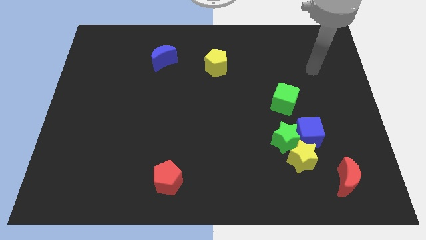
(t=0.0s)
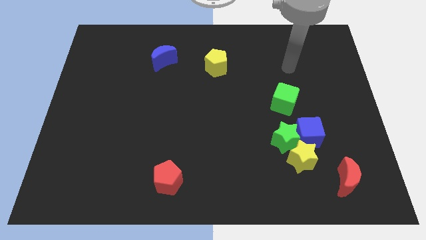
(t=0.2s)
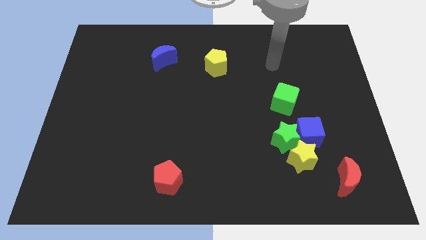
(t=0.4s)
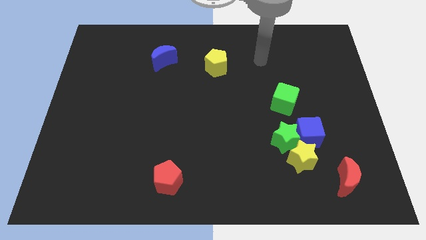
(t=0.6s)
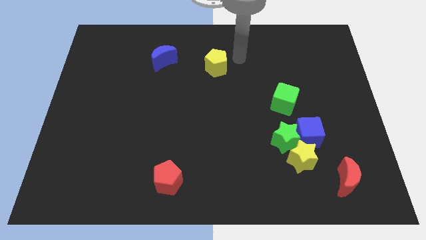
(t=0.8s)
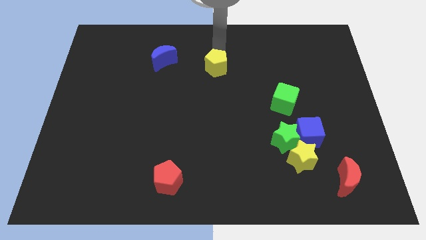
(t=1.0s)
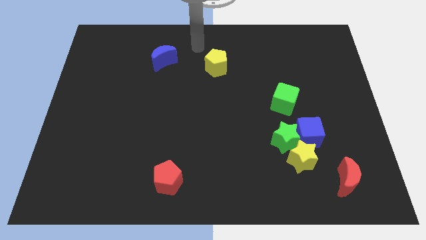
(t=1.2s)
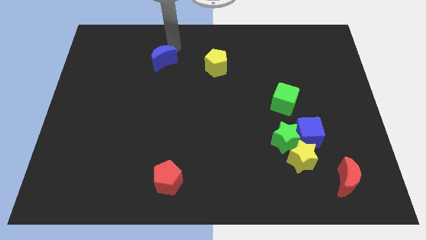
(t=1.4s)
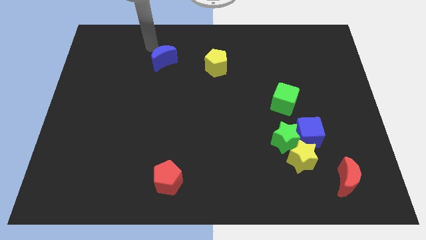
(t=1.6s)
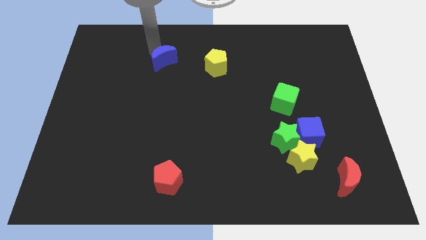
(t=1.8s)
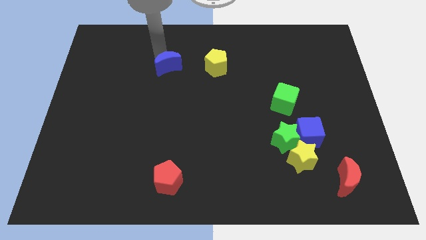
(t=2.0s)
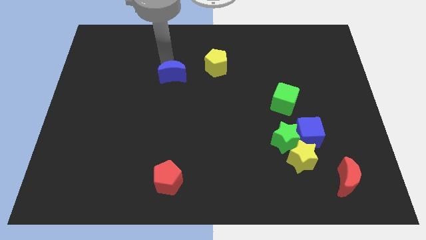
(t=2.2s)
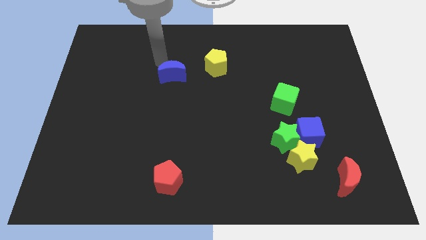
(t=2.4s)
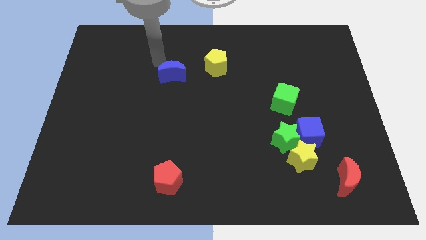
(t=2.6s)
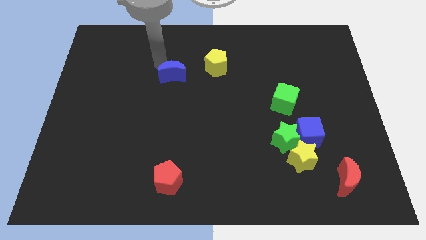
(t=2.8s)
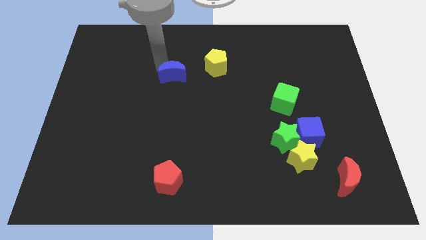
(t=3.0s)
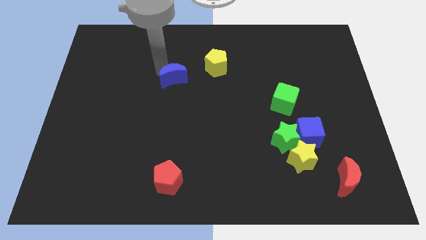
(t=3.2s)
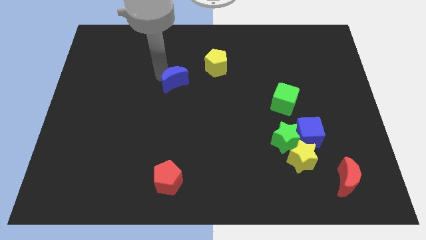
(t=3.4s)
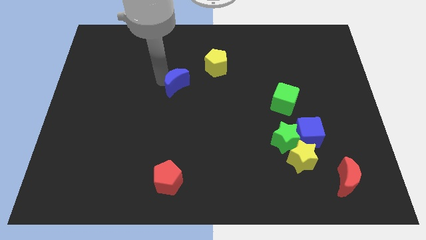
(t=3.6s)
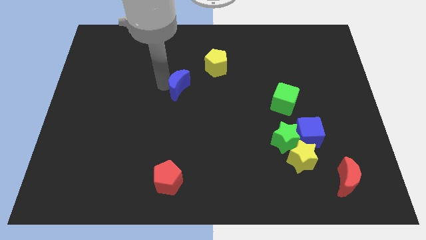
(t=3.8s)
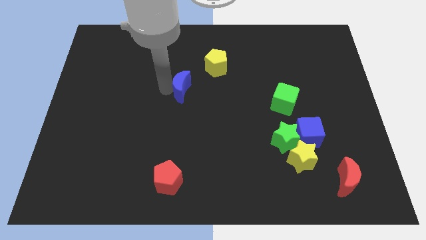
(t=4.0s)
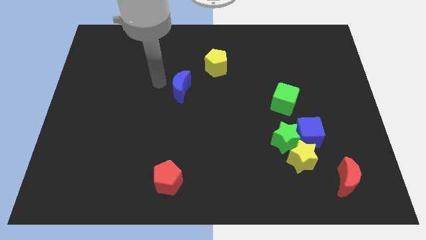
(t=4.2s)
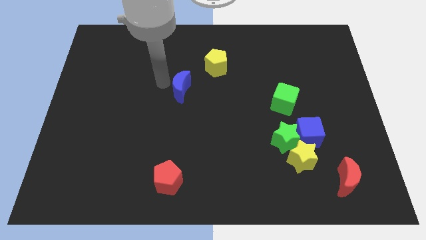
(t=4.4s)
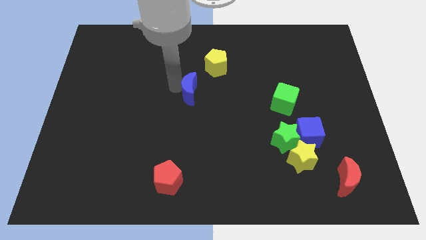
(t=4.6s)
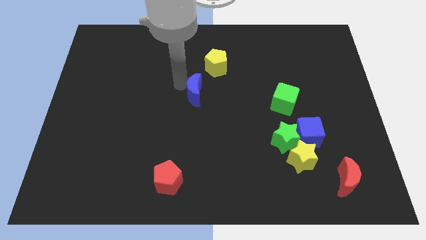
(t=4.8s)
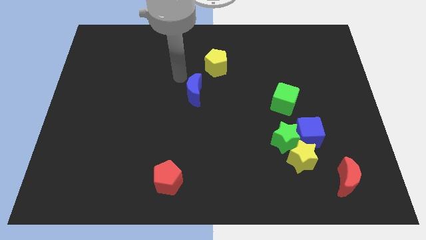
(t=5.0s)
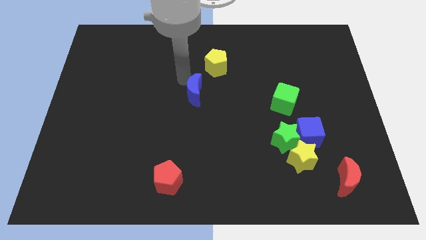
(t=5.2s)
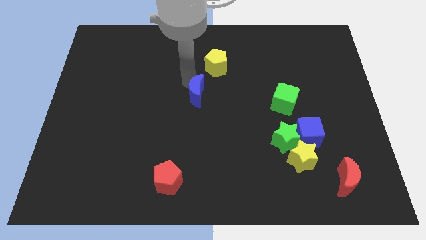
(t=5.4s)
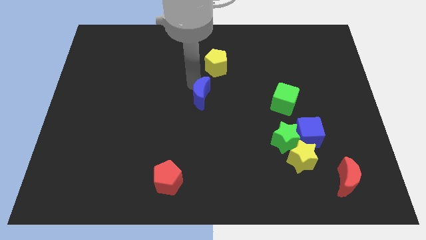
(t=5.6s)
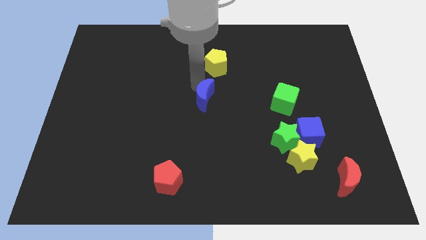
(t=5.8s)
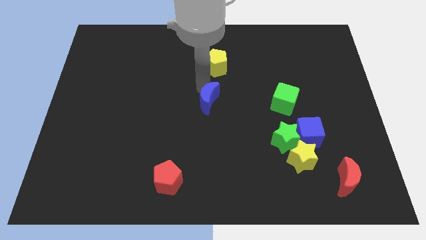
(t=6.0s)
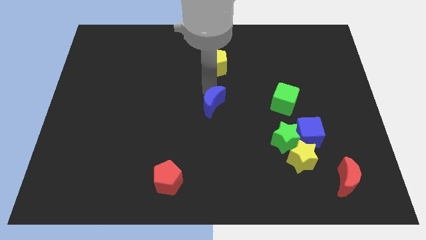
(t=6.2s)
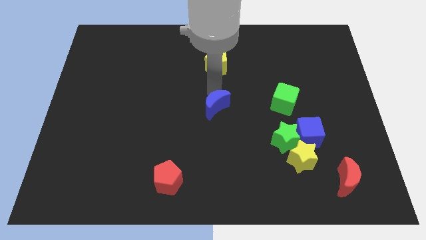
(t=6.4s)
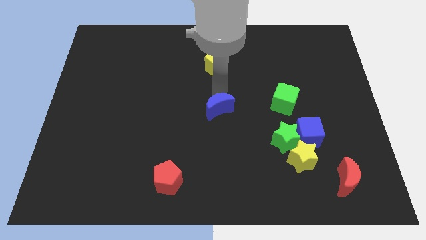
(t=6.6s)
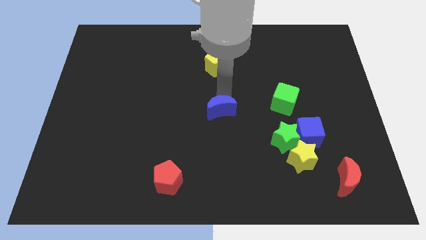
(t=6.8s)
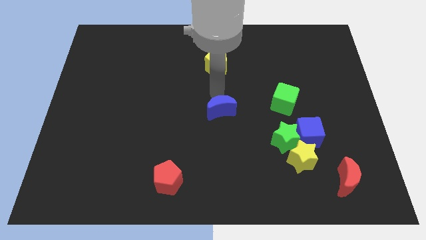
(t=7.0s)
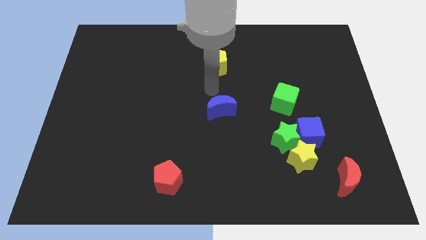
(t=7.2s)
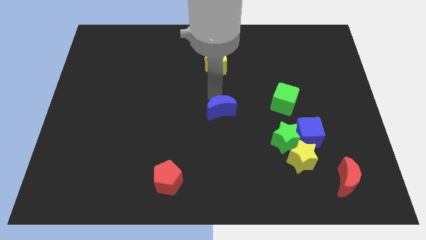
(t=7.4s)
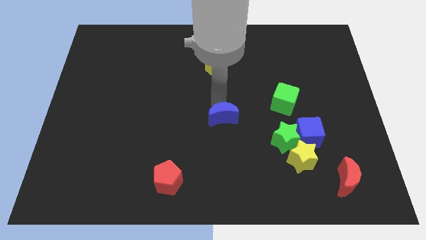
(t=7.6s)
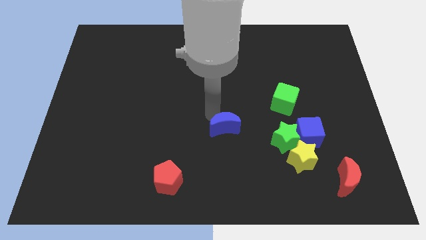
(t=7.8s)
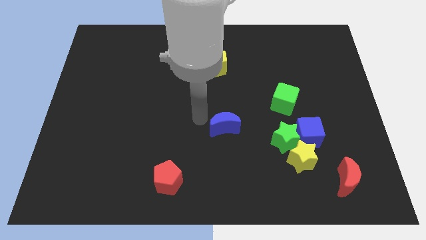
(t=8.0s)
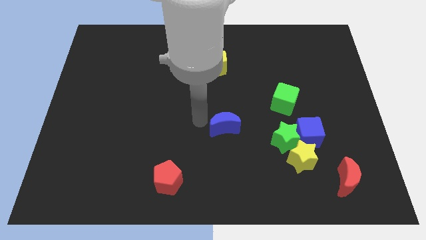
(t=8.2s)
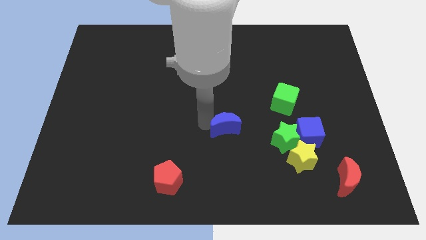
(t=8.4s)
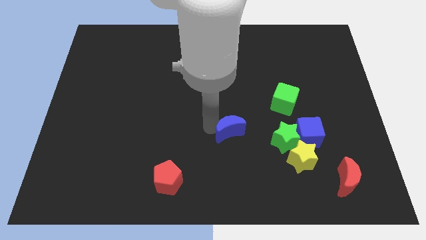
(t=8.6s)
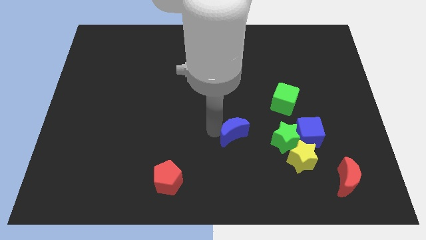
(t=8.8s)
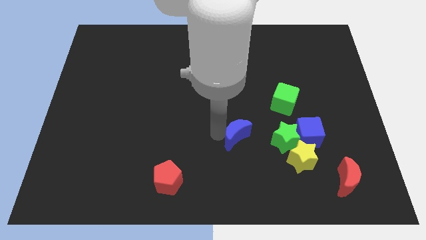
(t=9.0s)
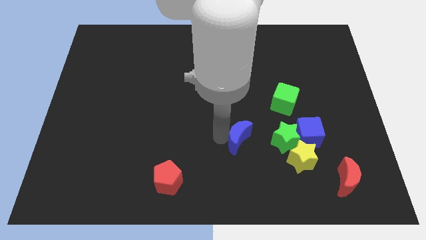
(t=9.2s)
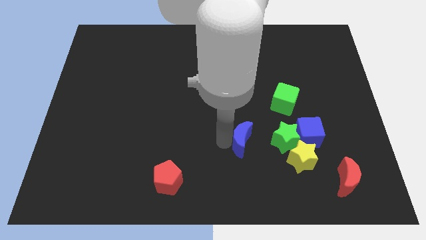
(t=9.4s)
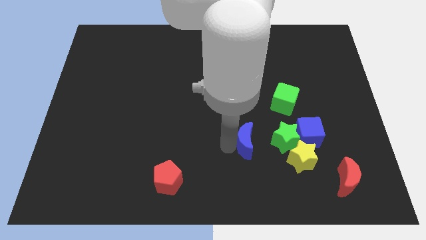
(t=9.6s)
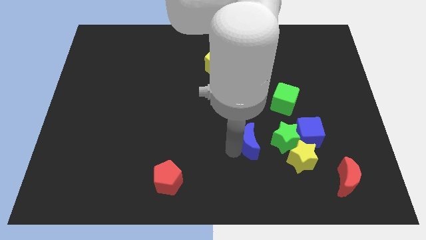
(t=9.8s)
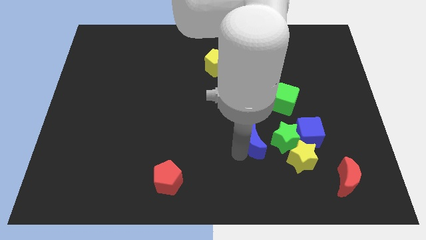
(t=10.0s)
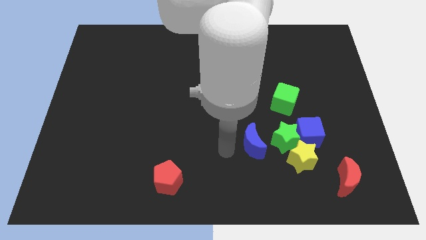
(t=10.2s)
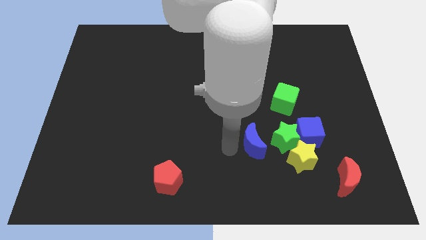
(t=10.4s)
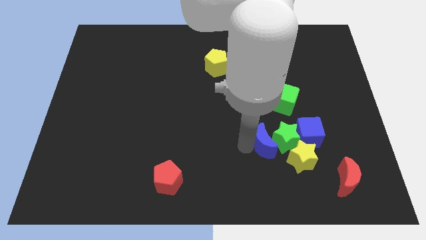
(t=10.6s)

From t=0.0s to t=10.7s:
slide the blue moon next to the green star

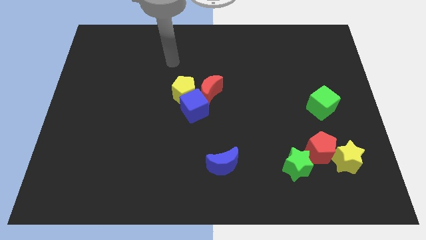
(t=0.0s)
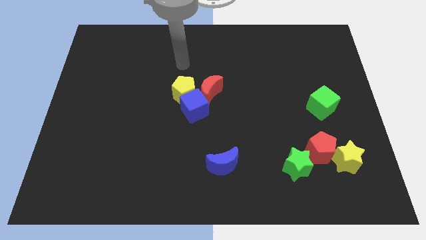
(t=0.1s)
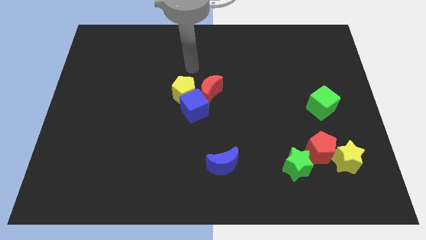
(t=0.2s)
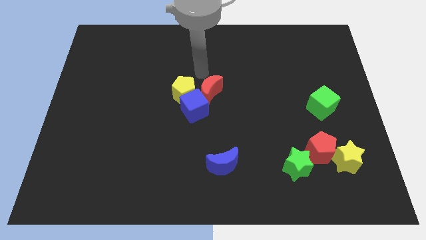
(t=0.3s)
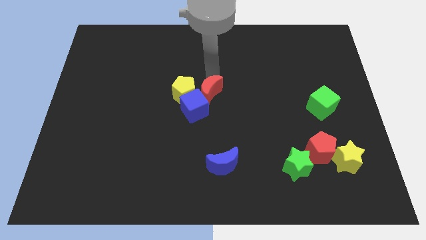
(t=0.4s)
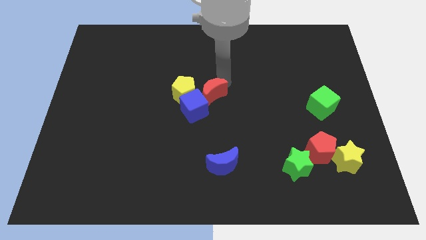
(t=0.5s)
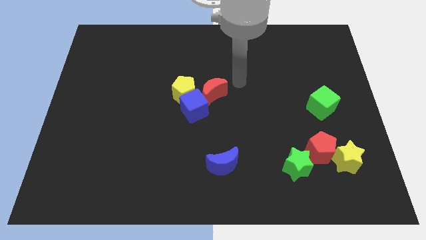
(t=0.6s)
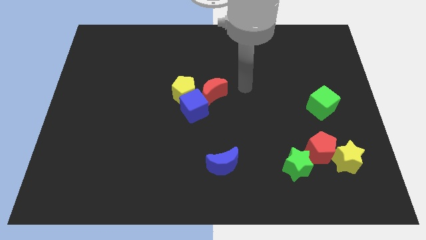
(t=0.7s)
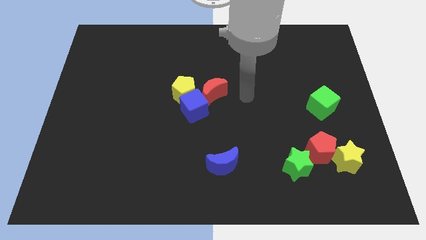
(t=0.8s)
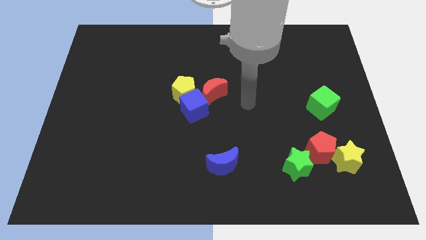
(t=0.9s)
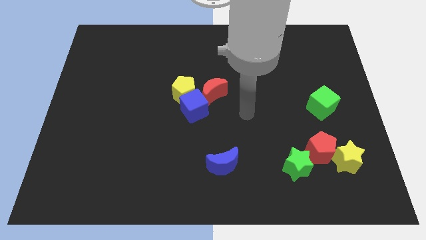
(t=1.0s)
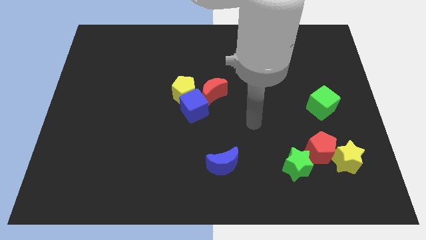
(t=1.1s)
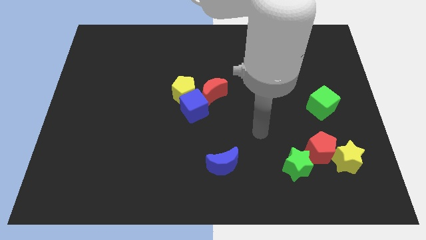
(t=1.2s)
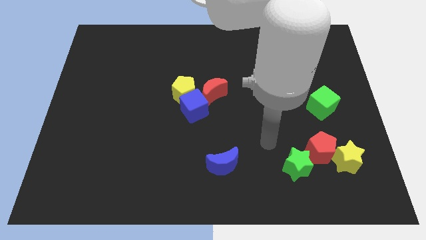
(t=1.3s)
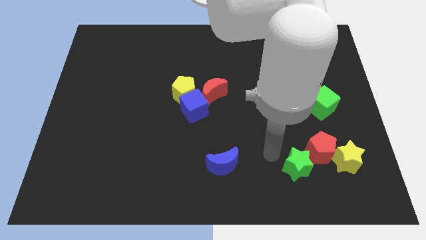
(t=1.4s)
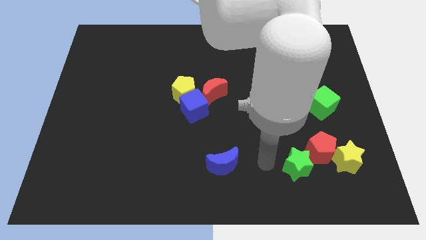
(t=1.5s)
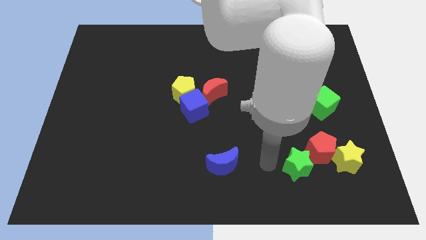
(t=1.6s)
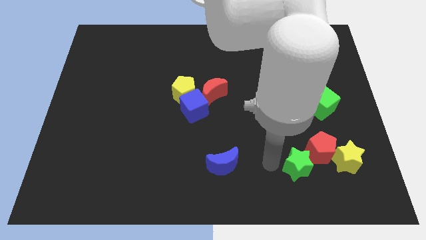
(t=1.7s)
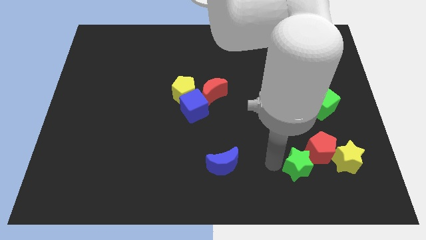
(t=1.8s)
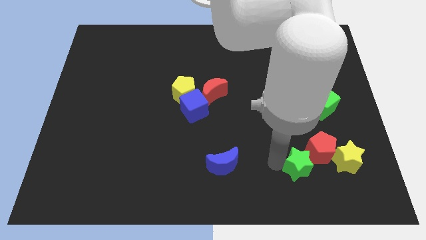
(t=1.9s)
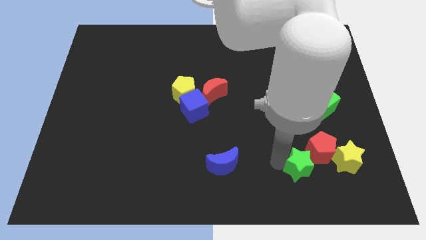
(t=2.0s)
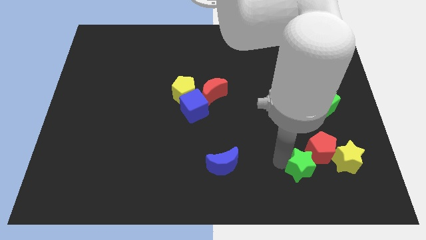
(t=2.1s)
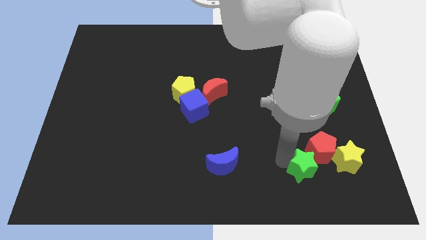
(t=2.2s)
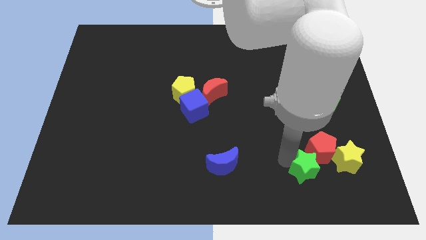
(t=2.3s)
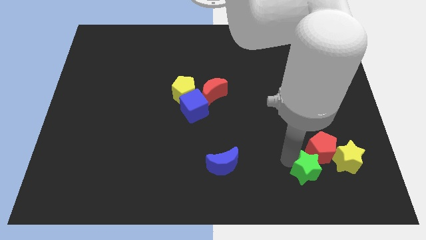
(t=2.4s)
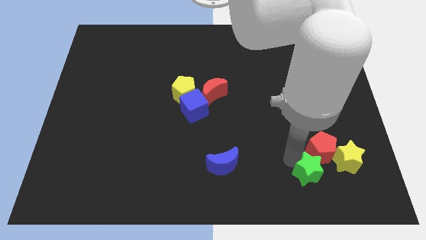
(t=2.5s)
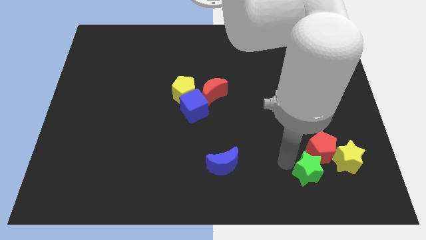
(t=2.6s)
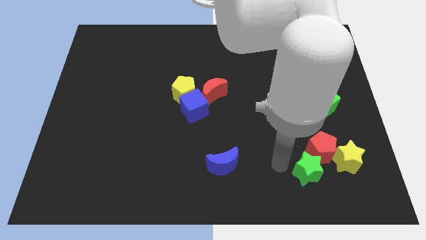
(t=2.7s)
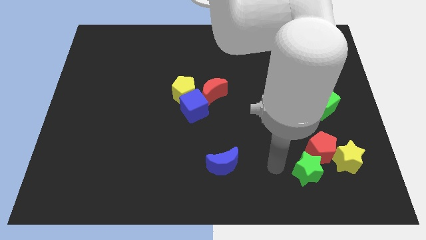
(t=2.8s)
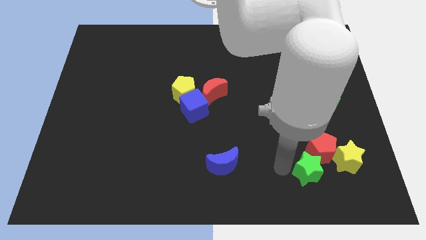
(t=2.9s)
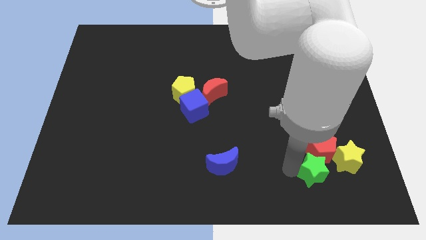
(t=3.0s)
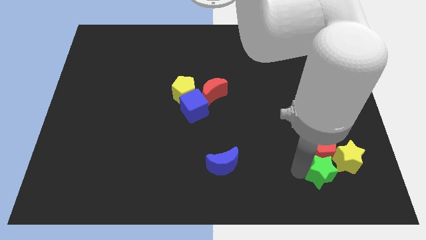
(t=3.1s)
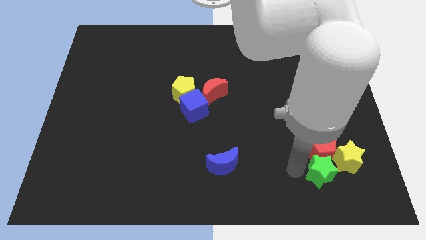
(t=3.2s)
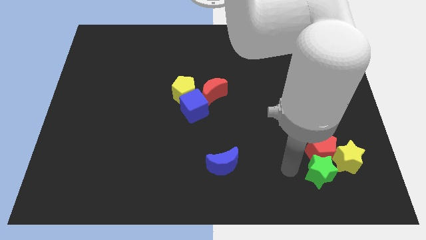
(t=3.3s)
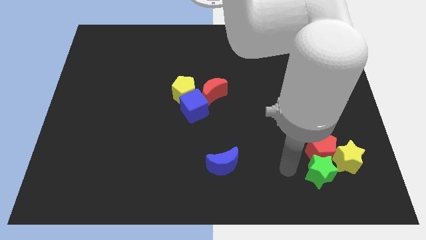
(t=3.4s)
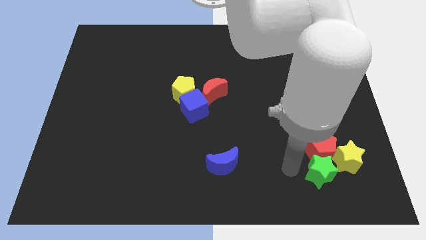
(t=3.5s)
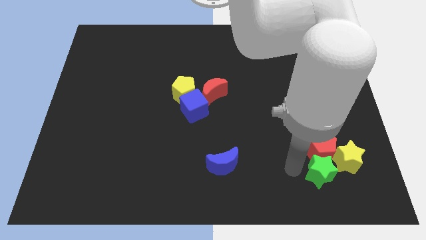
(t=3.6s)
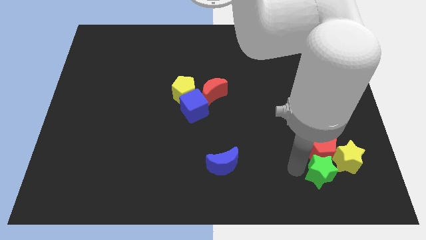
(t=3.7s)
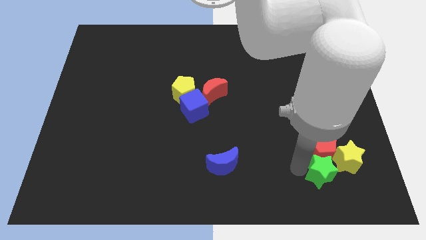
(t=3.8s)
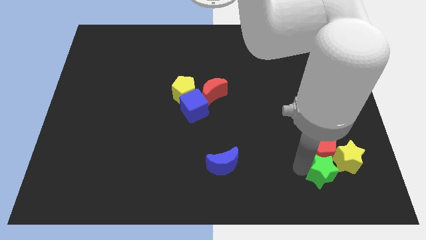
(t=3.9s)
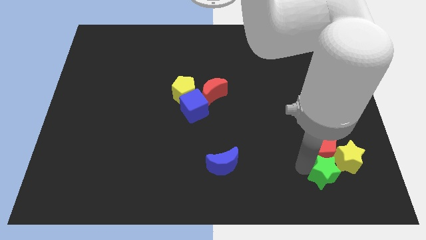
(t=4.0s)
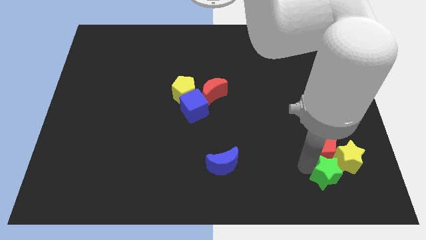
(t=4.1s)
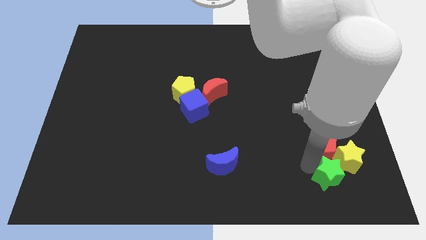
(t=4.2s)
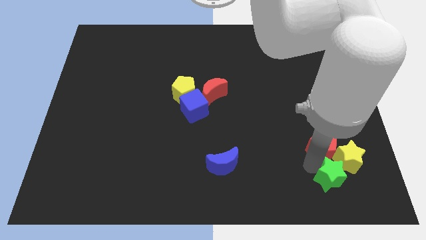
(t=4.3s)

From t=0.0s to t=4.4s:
push the green star close to the yellow star
